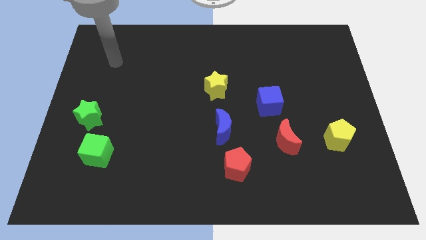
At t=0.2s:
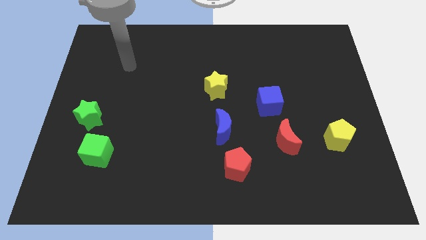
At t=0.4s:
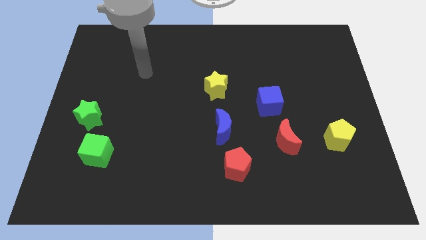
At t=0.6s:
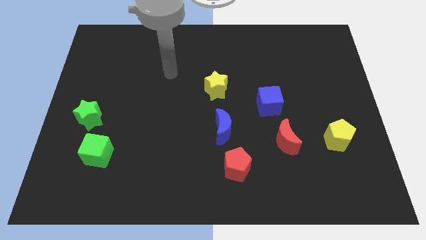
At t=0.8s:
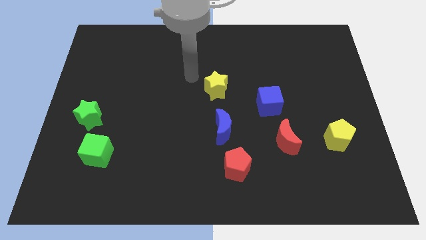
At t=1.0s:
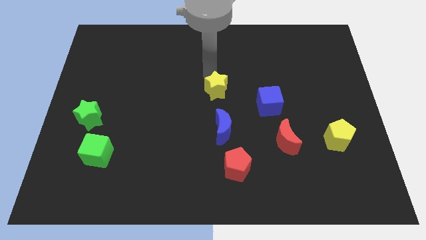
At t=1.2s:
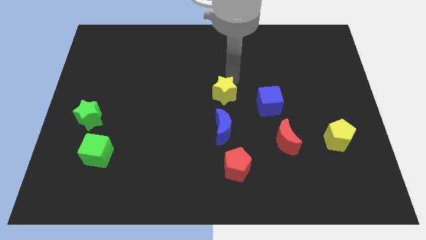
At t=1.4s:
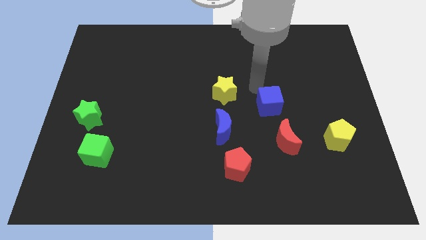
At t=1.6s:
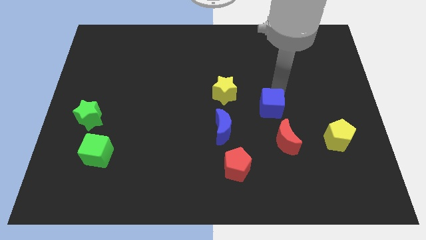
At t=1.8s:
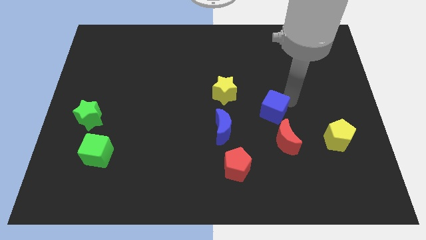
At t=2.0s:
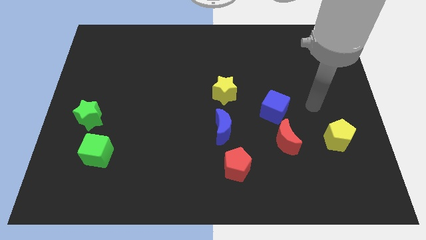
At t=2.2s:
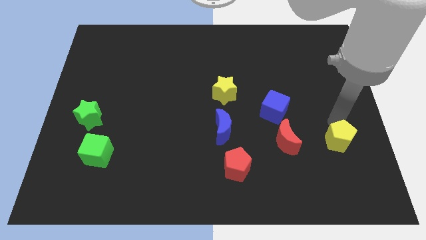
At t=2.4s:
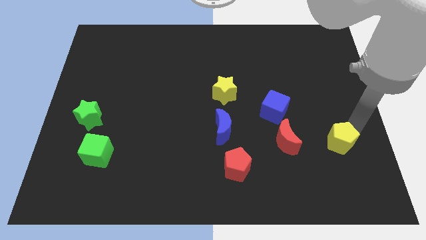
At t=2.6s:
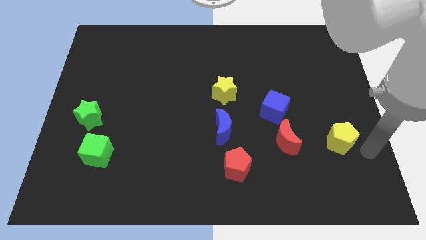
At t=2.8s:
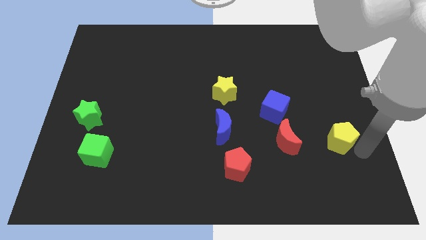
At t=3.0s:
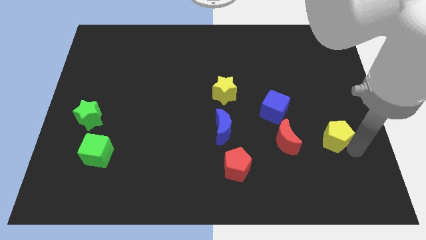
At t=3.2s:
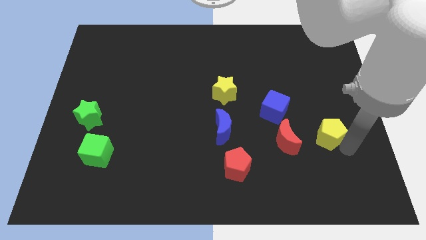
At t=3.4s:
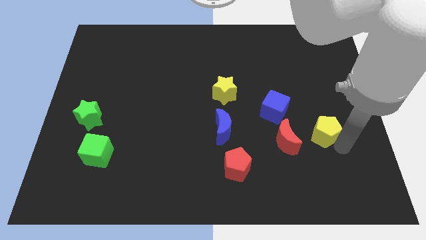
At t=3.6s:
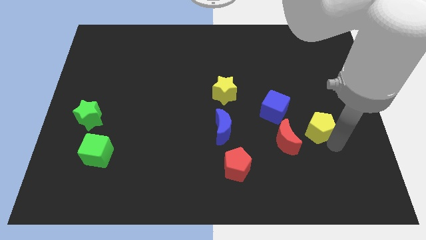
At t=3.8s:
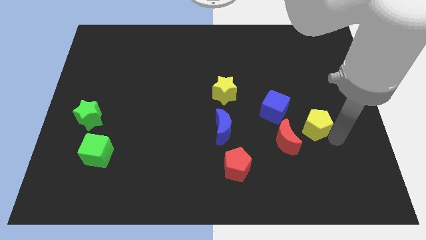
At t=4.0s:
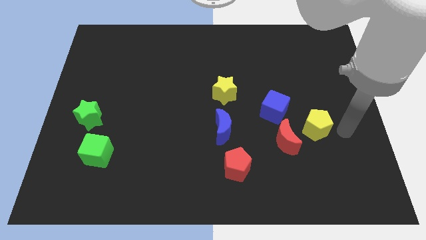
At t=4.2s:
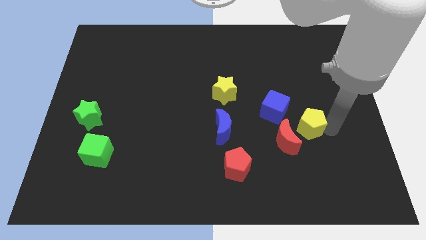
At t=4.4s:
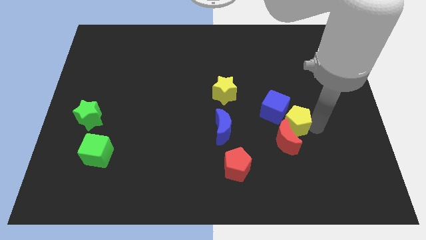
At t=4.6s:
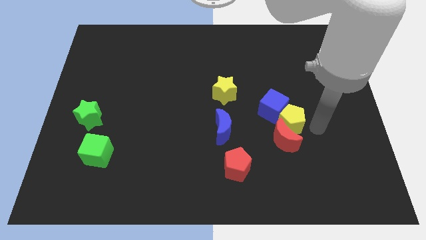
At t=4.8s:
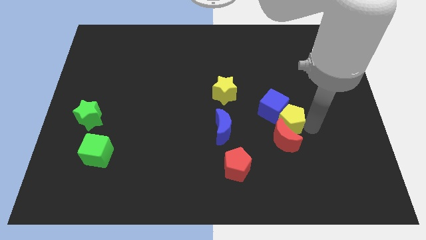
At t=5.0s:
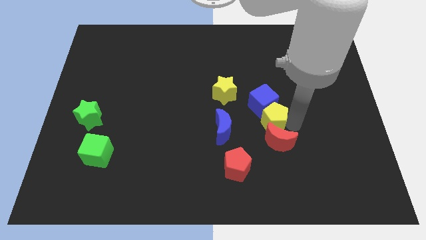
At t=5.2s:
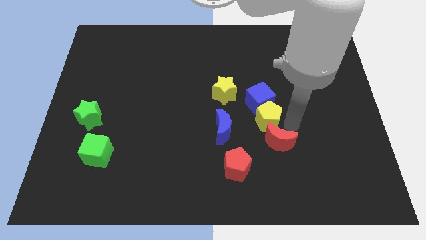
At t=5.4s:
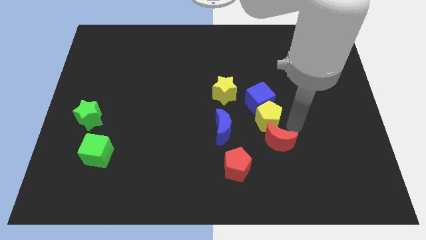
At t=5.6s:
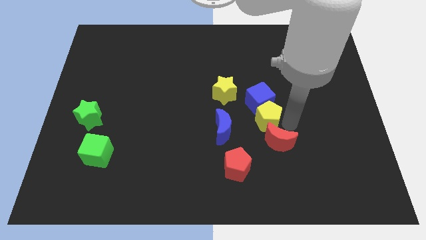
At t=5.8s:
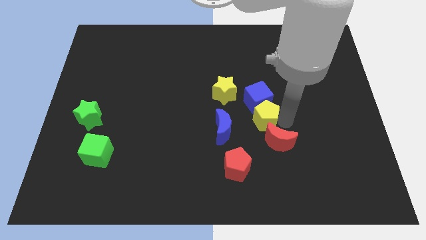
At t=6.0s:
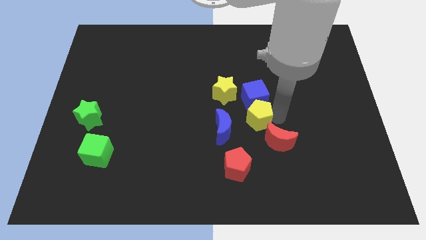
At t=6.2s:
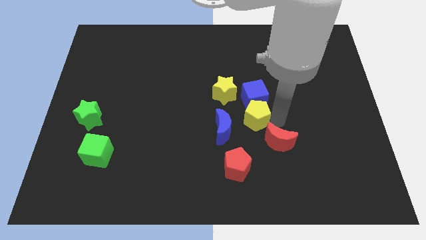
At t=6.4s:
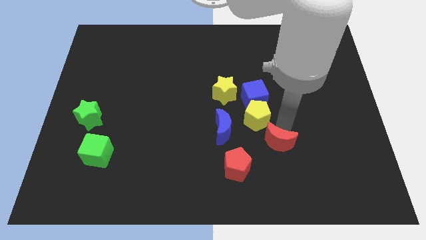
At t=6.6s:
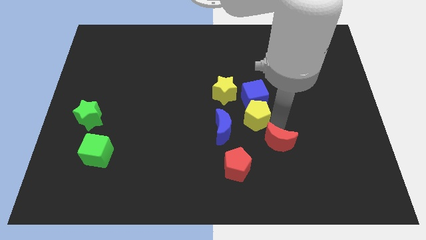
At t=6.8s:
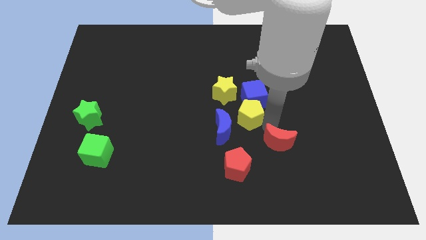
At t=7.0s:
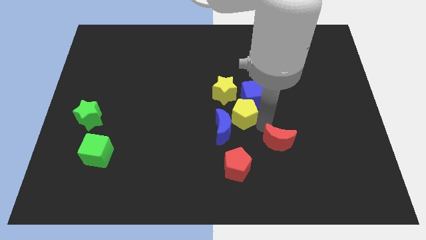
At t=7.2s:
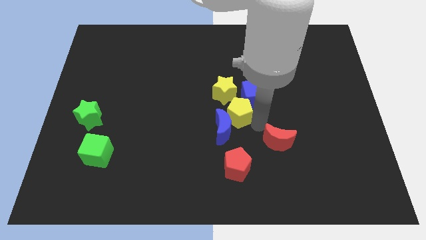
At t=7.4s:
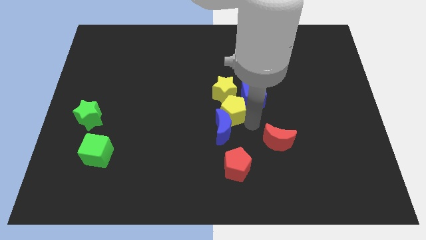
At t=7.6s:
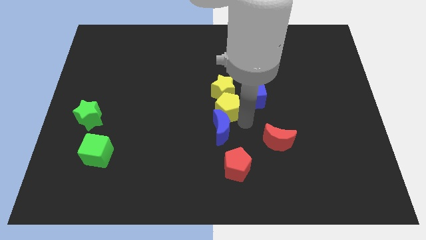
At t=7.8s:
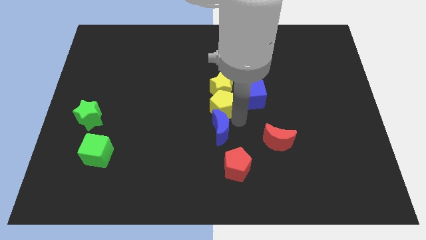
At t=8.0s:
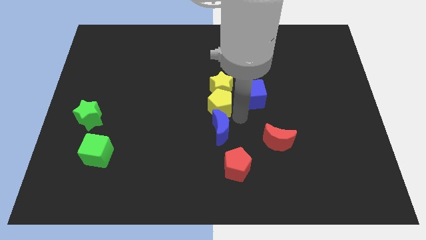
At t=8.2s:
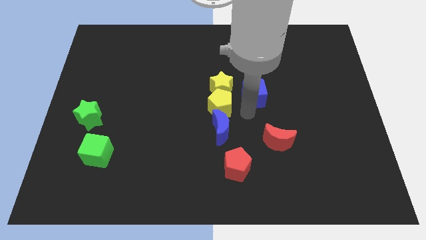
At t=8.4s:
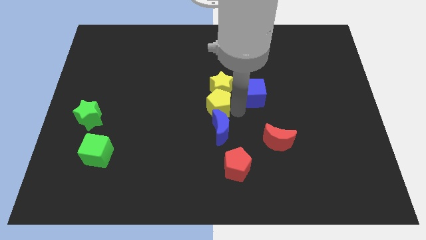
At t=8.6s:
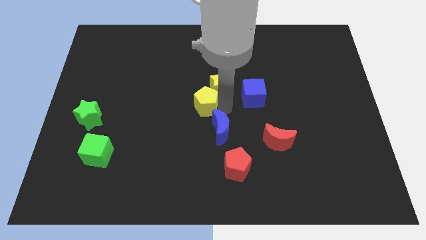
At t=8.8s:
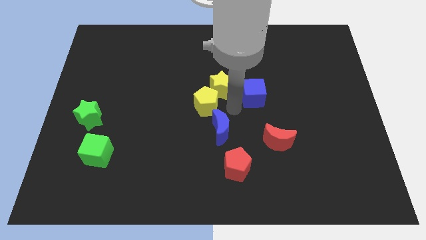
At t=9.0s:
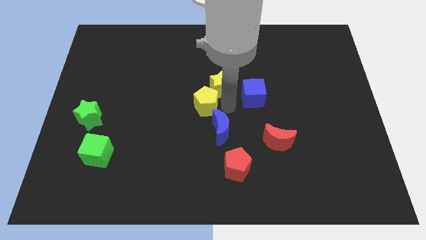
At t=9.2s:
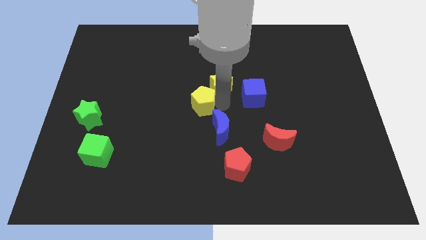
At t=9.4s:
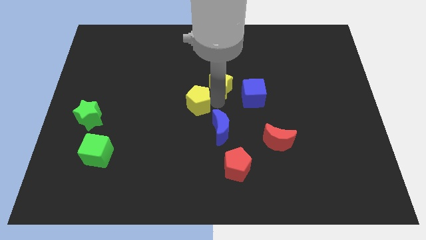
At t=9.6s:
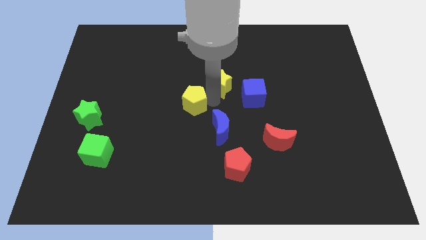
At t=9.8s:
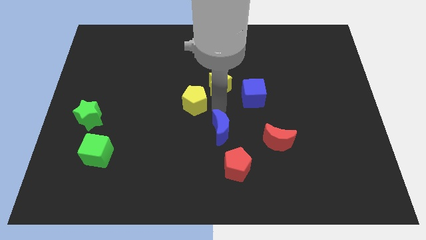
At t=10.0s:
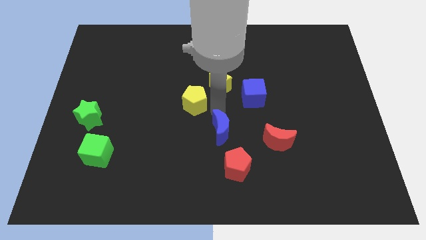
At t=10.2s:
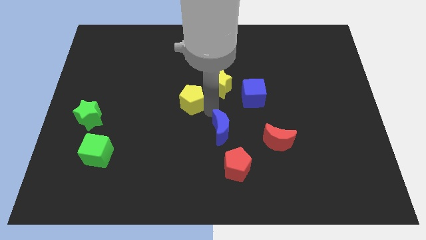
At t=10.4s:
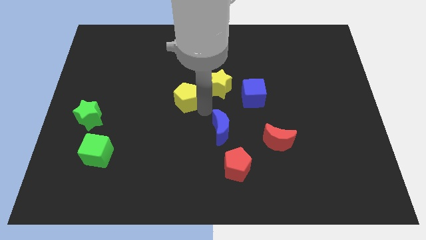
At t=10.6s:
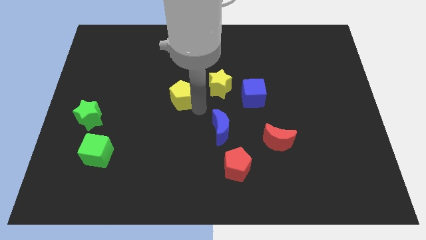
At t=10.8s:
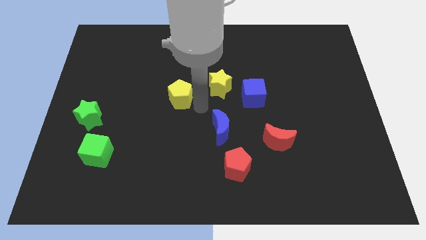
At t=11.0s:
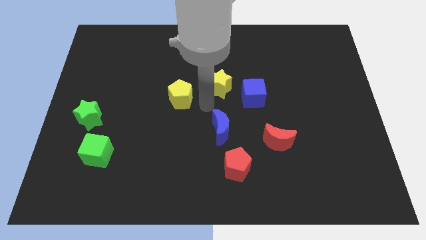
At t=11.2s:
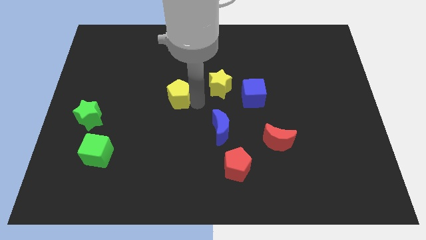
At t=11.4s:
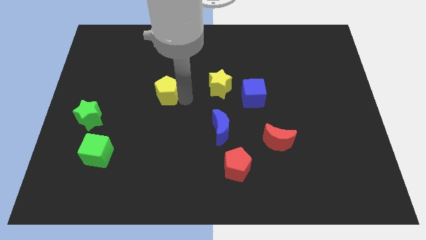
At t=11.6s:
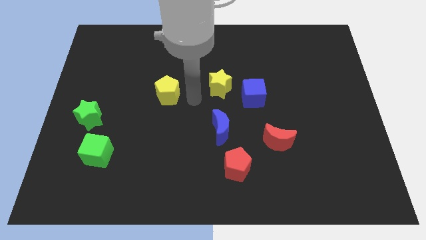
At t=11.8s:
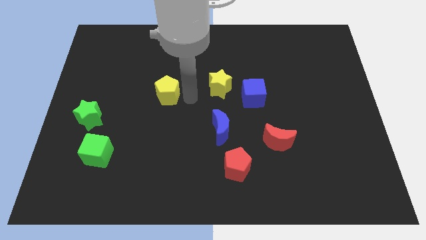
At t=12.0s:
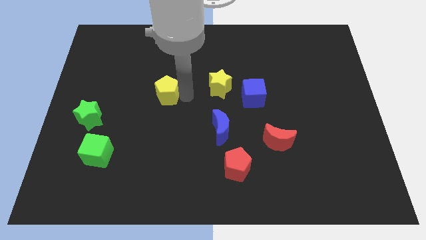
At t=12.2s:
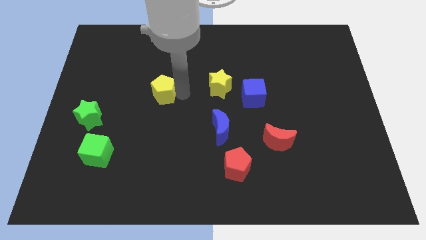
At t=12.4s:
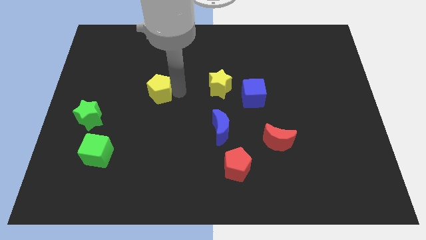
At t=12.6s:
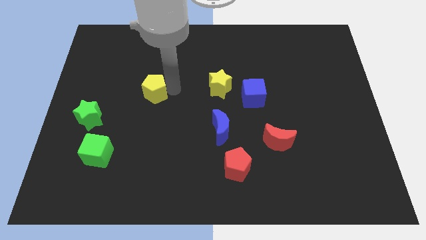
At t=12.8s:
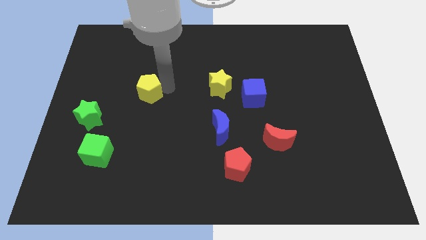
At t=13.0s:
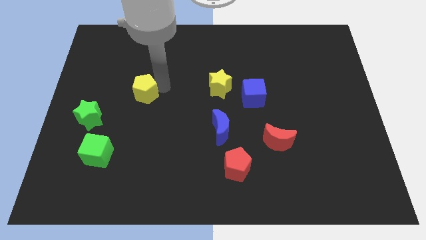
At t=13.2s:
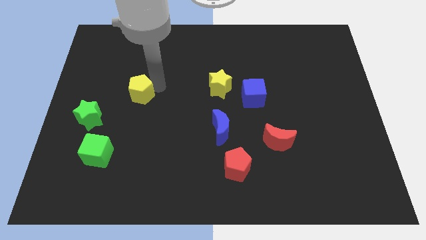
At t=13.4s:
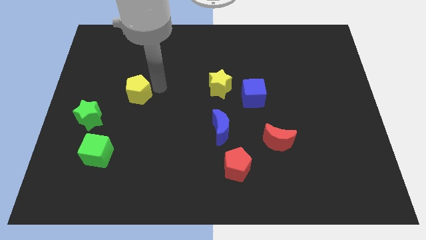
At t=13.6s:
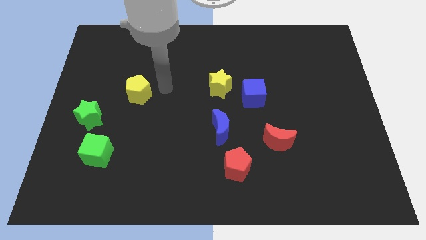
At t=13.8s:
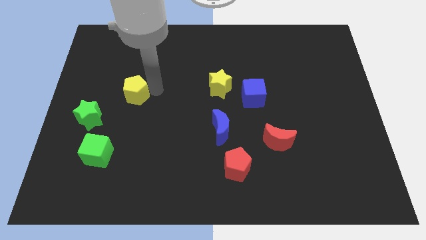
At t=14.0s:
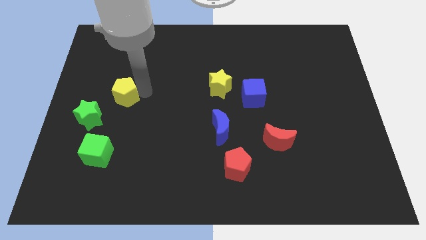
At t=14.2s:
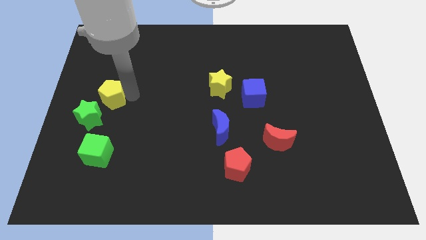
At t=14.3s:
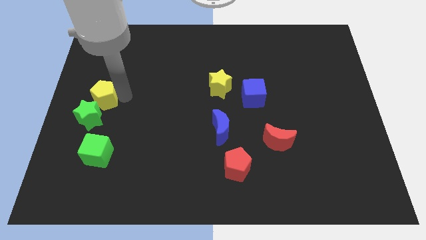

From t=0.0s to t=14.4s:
move the yellow pentagon to the left side of the board
